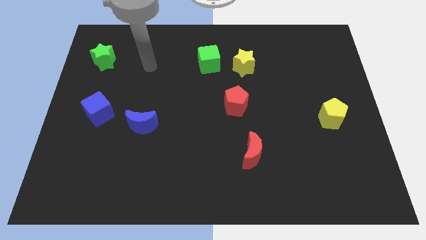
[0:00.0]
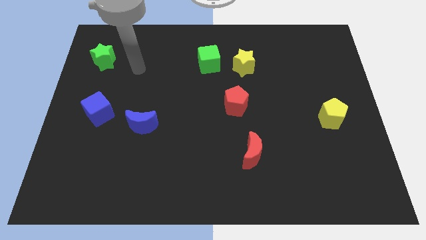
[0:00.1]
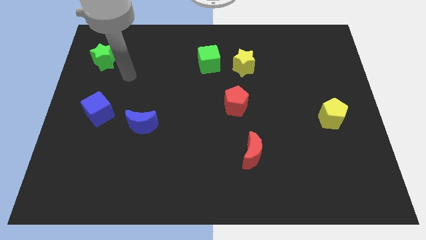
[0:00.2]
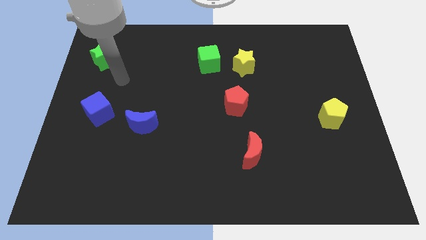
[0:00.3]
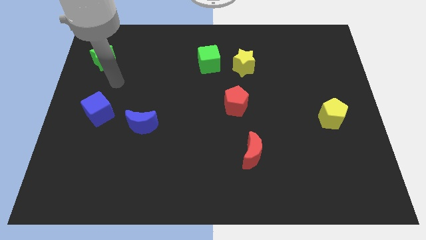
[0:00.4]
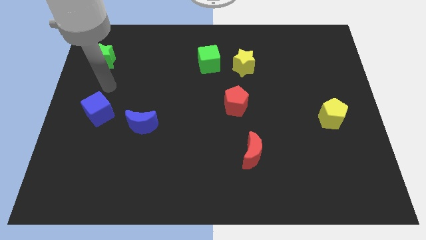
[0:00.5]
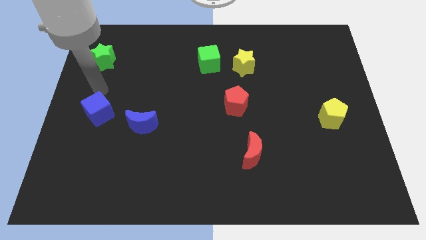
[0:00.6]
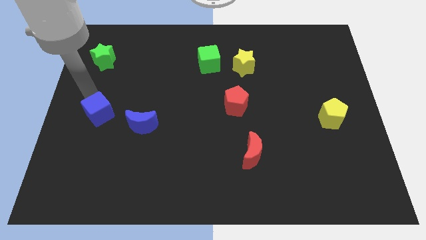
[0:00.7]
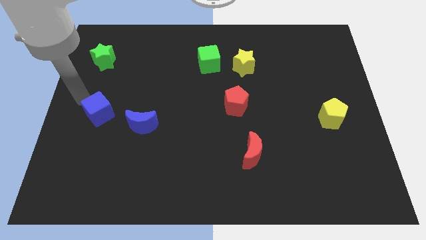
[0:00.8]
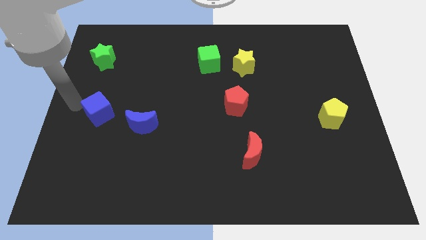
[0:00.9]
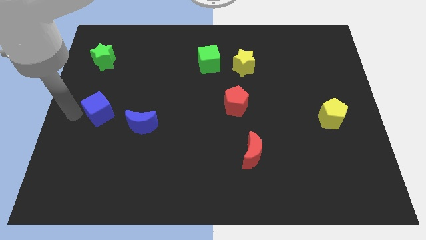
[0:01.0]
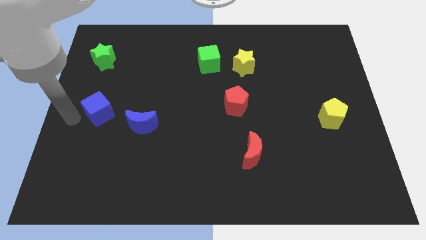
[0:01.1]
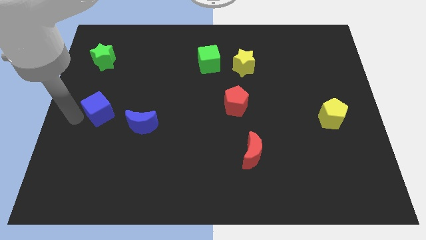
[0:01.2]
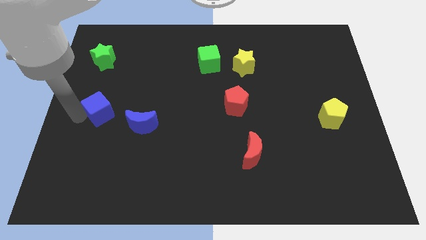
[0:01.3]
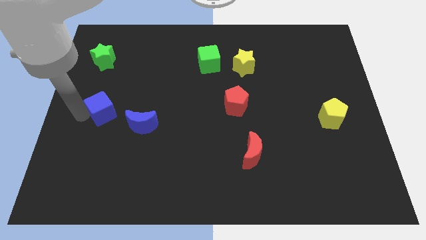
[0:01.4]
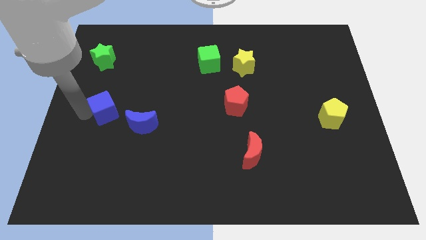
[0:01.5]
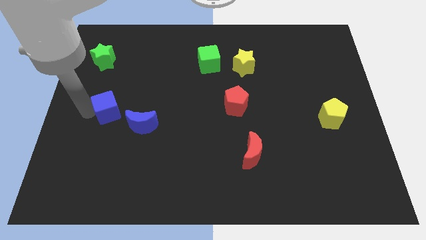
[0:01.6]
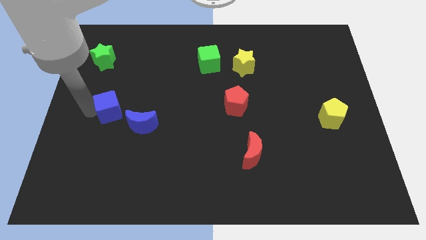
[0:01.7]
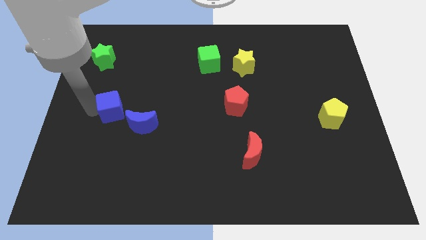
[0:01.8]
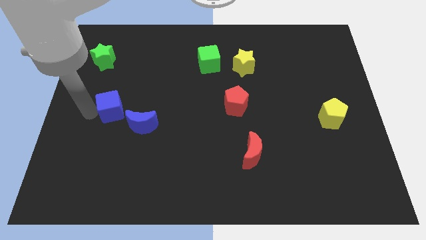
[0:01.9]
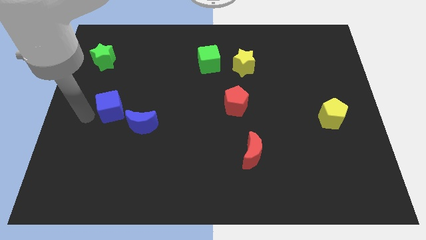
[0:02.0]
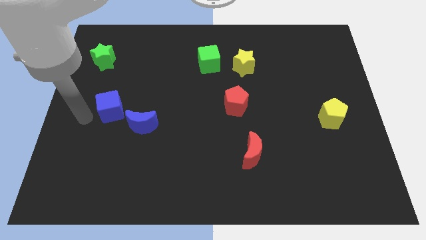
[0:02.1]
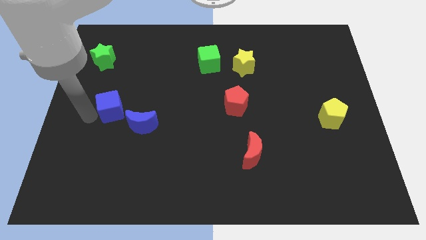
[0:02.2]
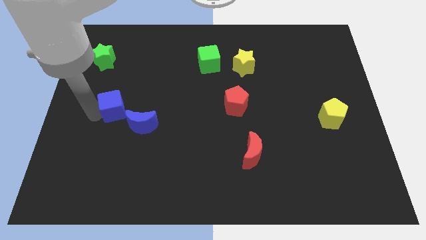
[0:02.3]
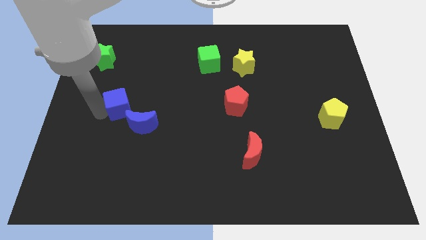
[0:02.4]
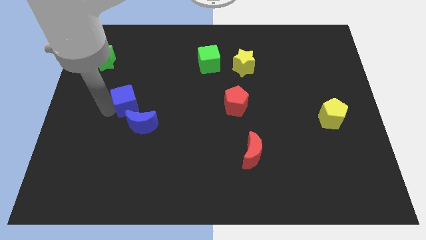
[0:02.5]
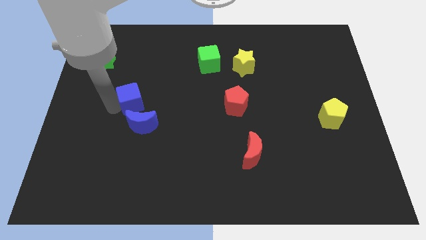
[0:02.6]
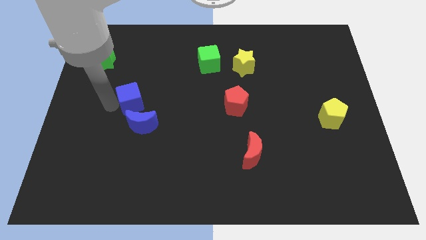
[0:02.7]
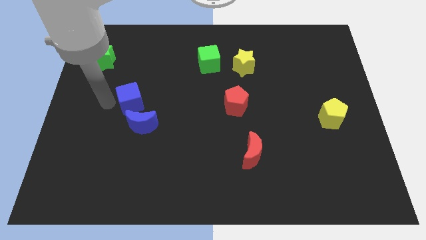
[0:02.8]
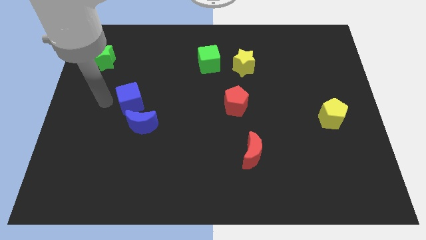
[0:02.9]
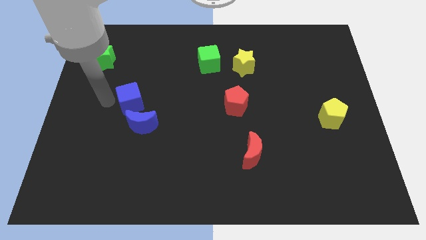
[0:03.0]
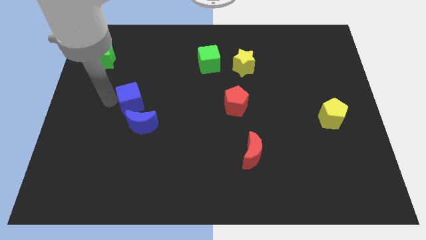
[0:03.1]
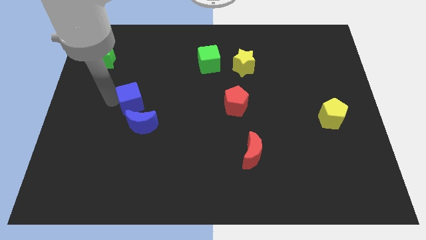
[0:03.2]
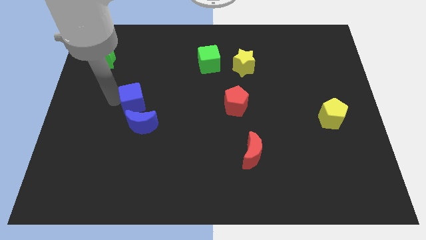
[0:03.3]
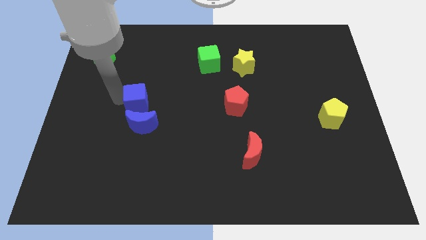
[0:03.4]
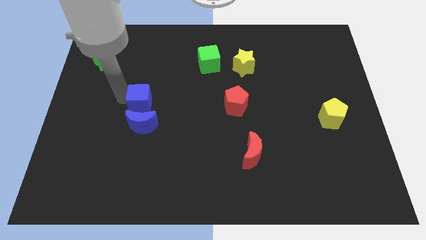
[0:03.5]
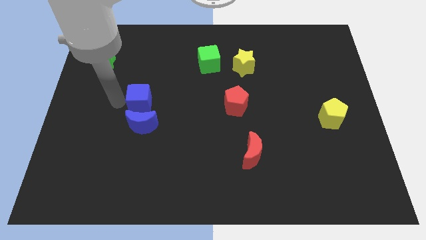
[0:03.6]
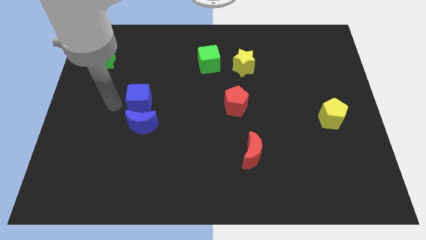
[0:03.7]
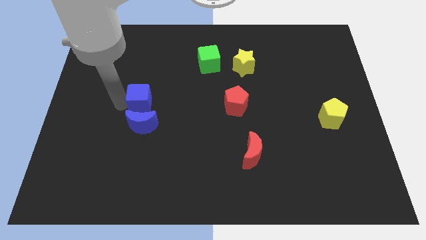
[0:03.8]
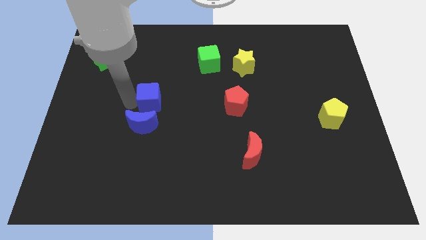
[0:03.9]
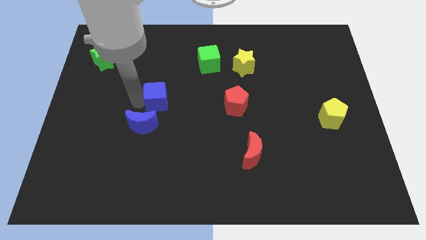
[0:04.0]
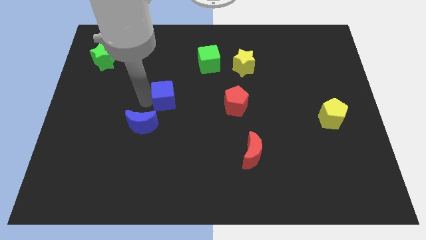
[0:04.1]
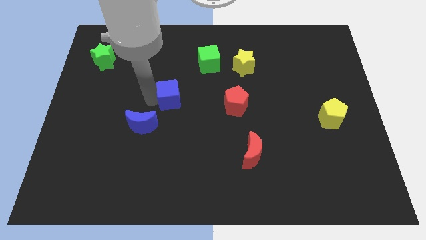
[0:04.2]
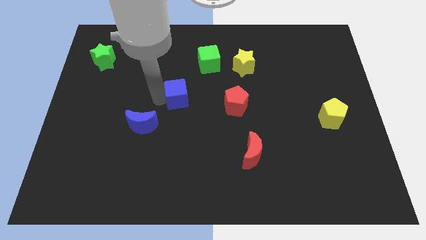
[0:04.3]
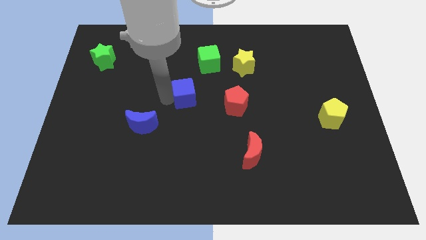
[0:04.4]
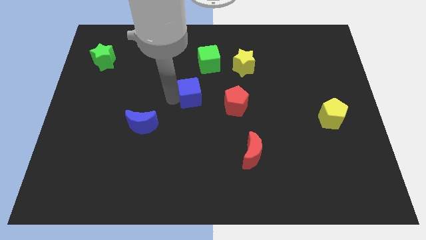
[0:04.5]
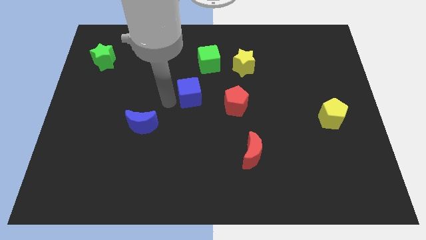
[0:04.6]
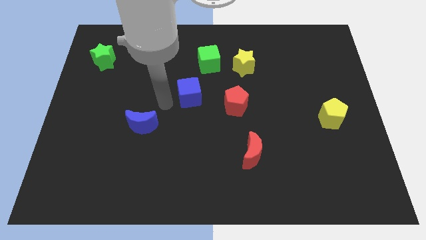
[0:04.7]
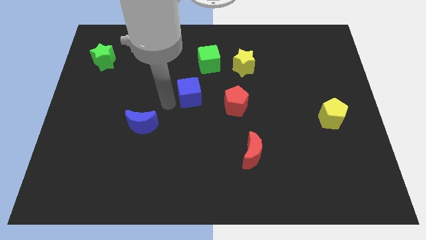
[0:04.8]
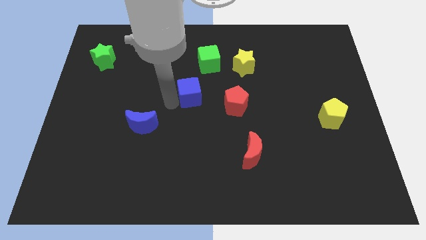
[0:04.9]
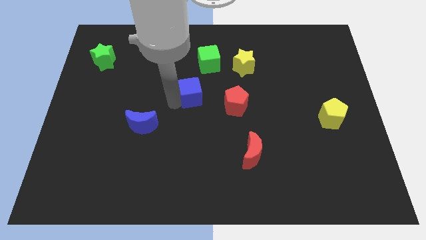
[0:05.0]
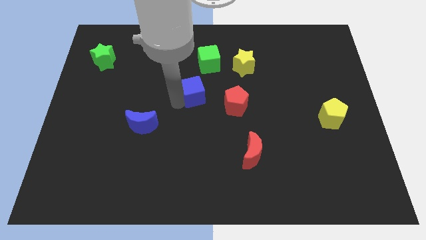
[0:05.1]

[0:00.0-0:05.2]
put the blue cube to the top left side of the red pentagon

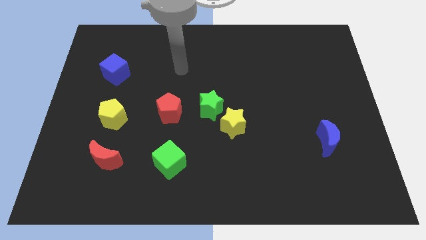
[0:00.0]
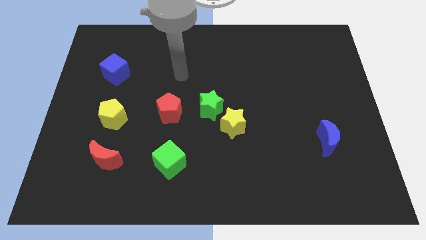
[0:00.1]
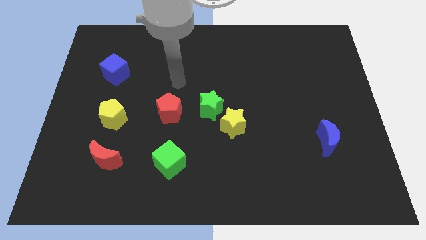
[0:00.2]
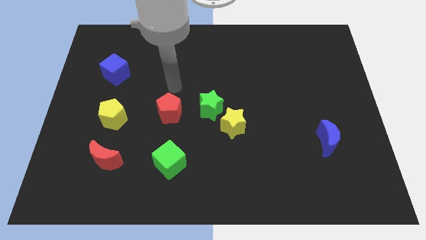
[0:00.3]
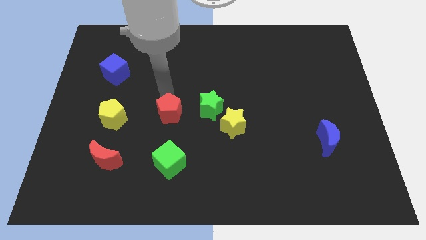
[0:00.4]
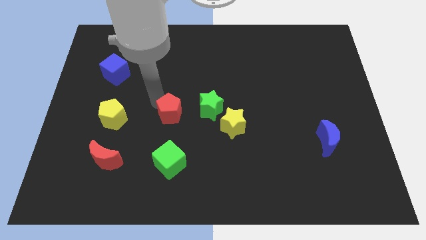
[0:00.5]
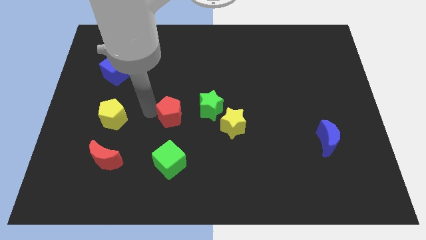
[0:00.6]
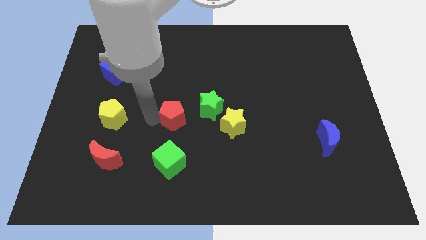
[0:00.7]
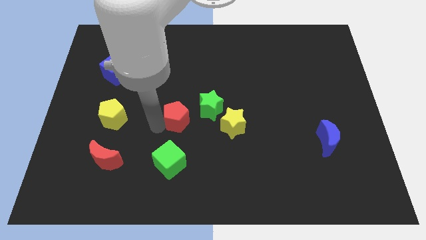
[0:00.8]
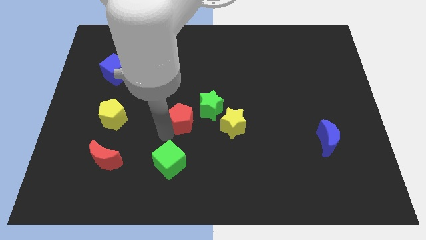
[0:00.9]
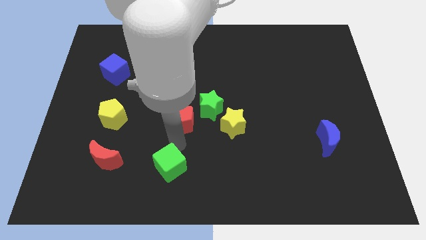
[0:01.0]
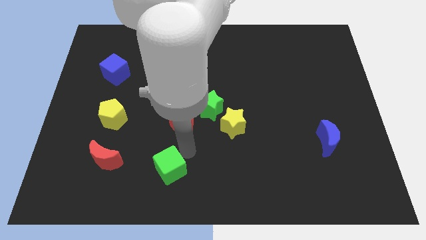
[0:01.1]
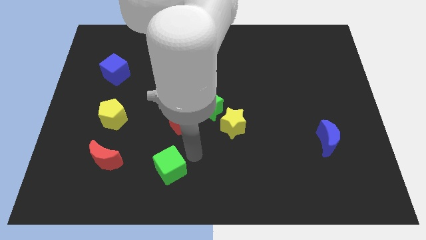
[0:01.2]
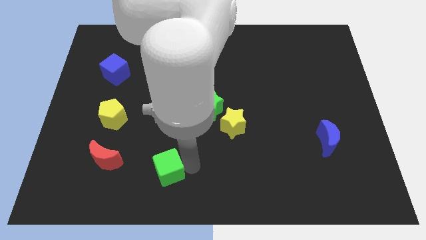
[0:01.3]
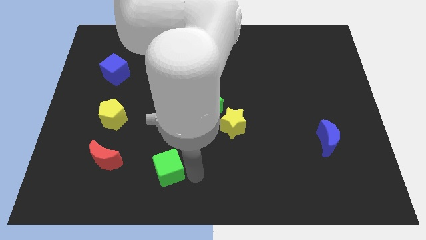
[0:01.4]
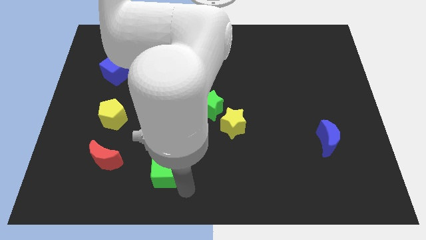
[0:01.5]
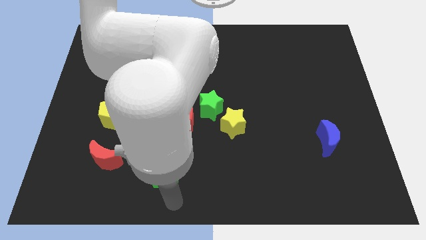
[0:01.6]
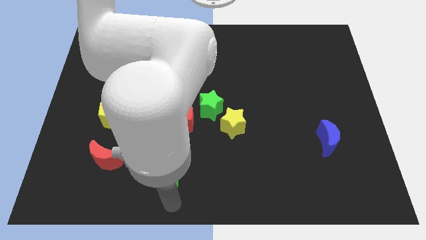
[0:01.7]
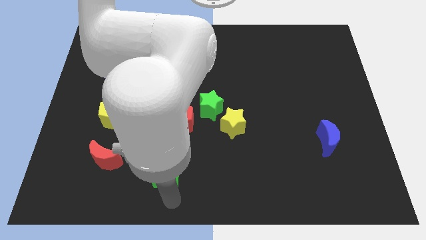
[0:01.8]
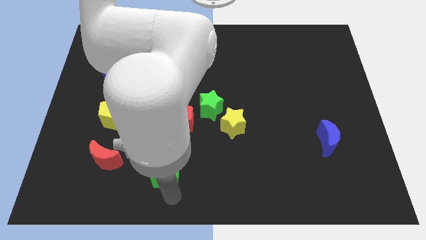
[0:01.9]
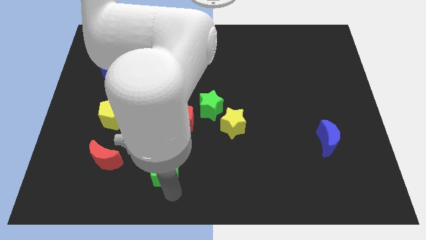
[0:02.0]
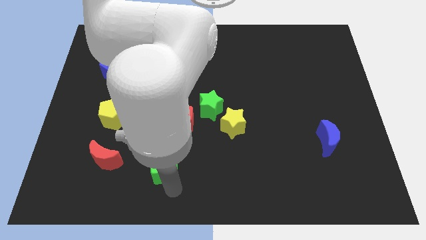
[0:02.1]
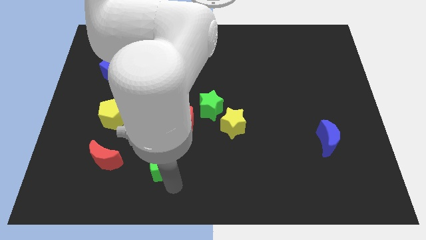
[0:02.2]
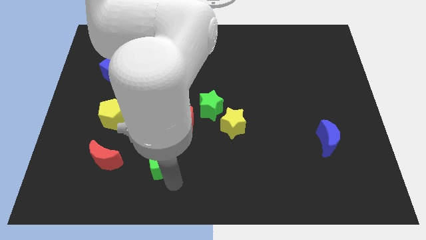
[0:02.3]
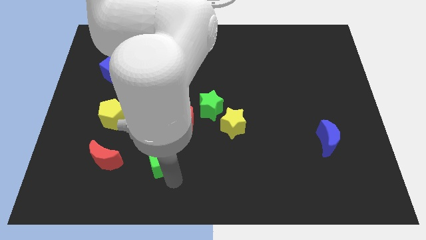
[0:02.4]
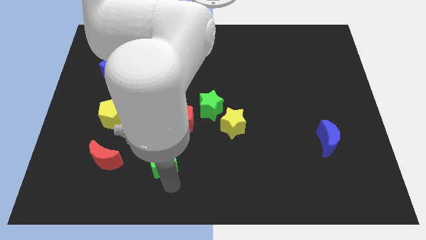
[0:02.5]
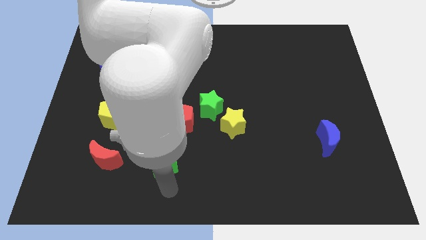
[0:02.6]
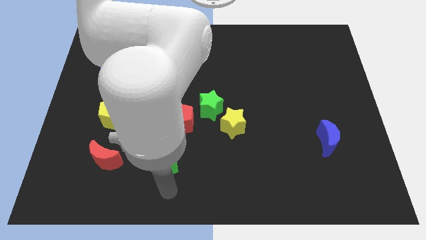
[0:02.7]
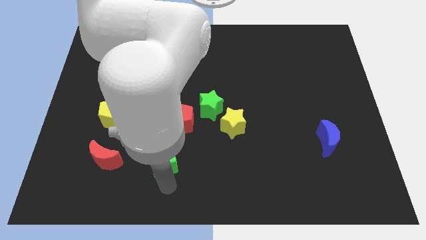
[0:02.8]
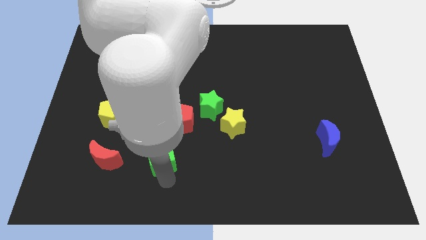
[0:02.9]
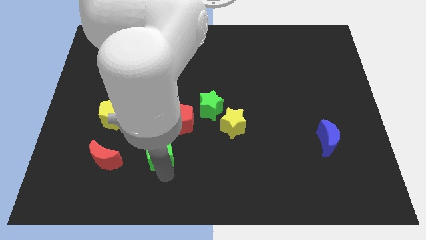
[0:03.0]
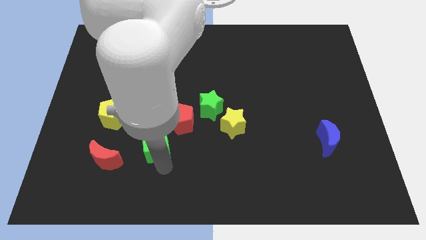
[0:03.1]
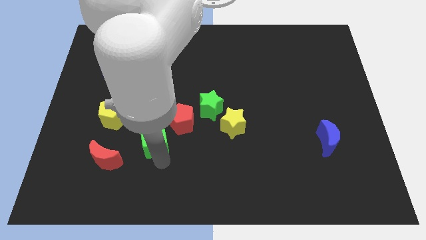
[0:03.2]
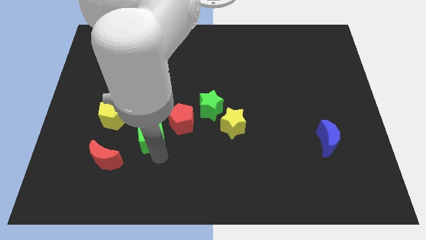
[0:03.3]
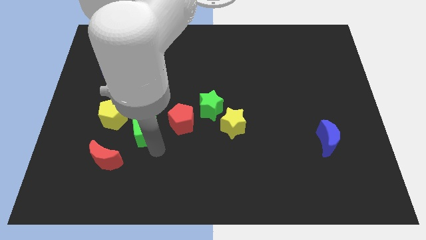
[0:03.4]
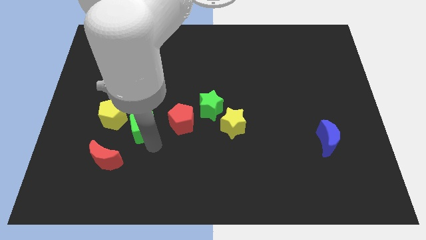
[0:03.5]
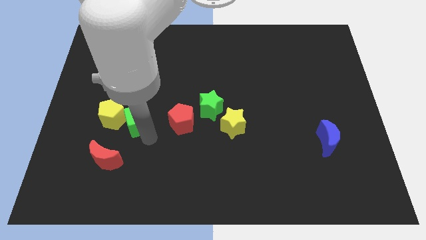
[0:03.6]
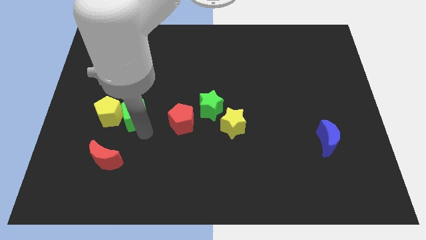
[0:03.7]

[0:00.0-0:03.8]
put the green cube to the top right side of the yellow pentagon
